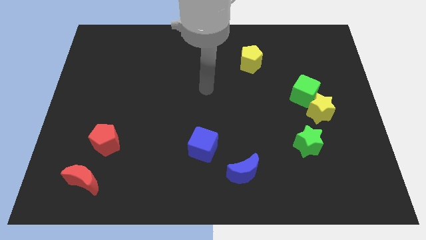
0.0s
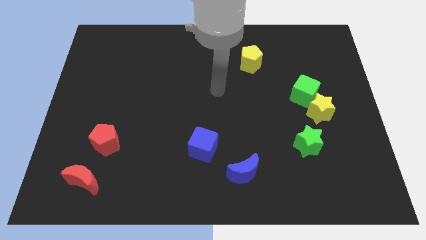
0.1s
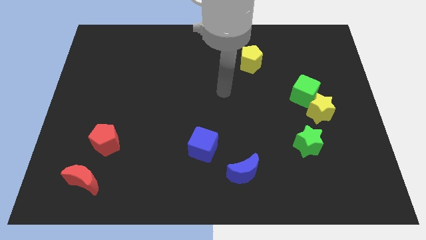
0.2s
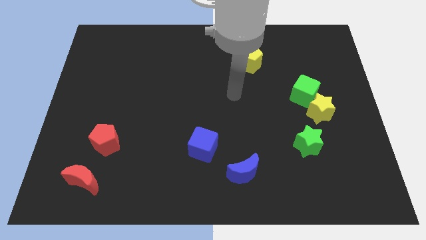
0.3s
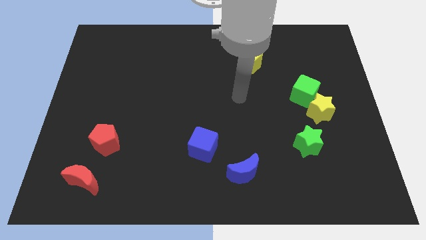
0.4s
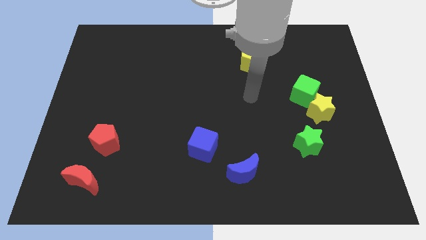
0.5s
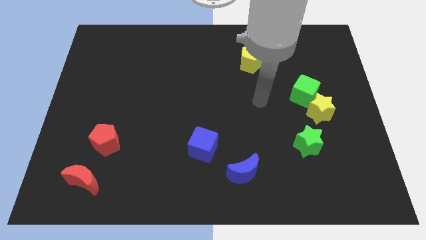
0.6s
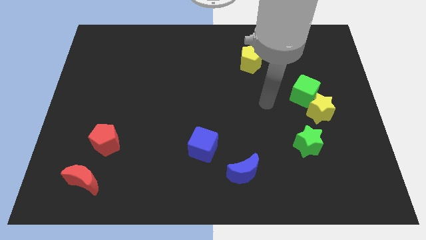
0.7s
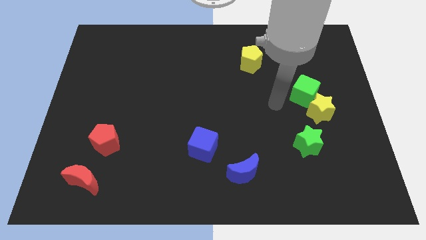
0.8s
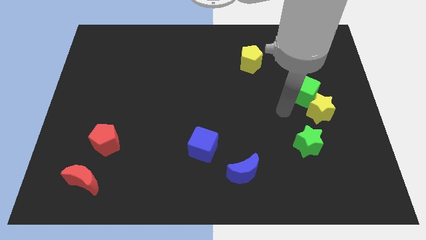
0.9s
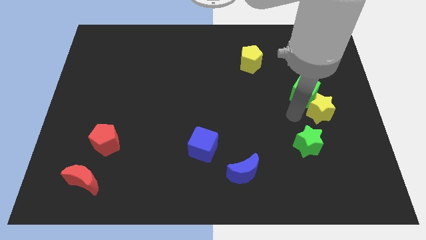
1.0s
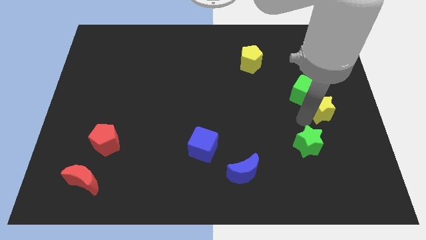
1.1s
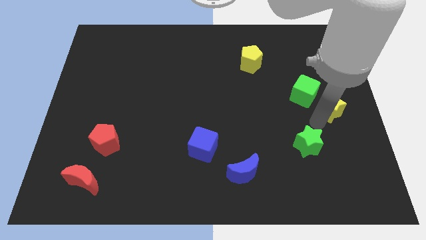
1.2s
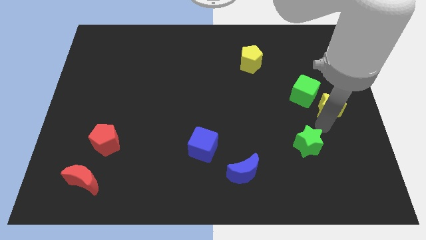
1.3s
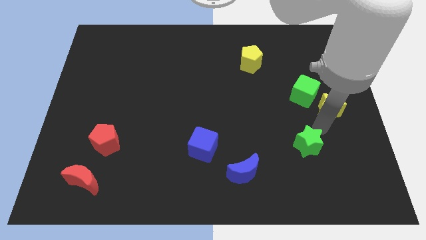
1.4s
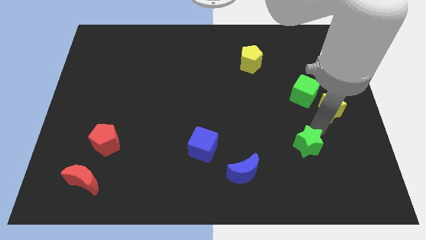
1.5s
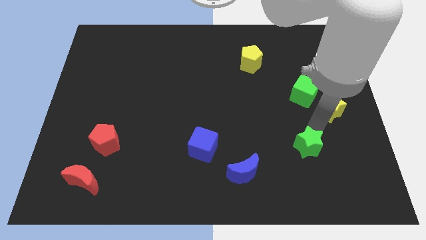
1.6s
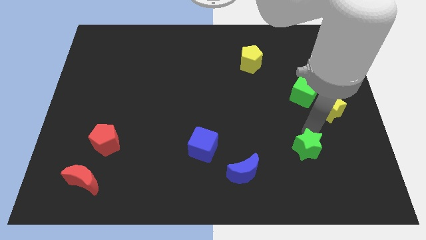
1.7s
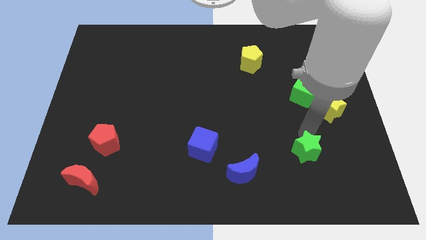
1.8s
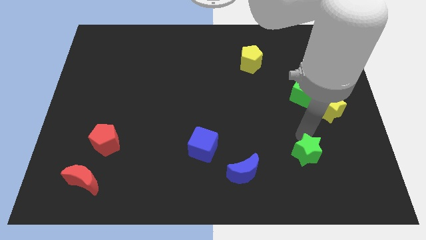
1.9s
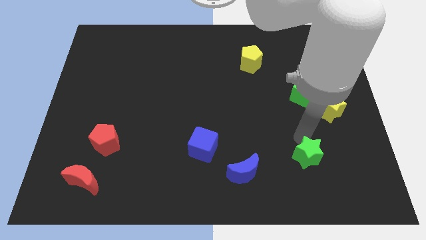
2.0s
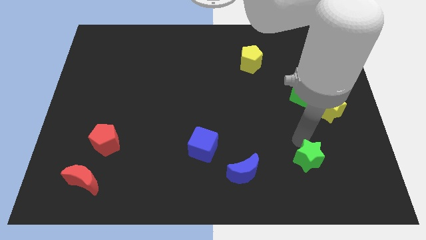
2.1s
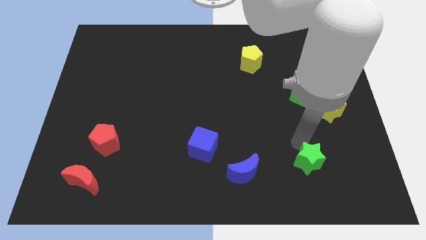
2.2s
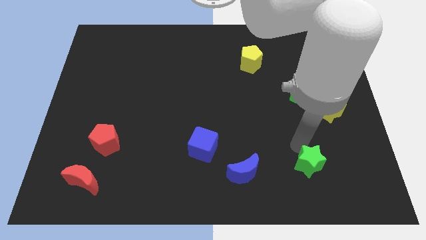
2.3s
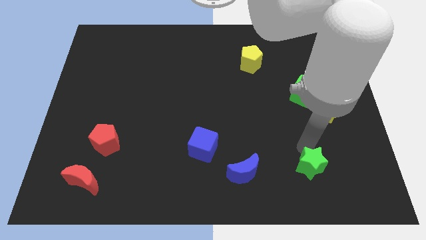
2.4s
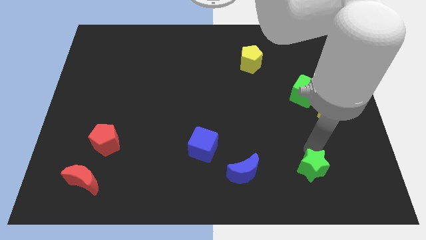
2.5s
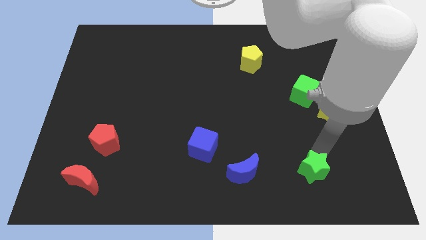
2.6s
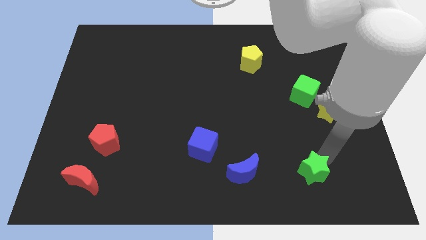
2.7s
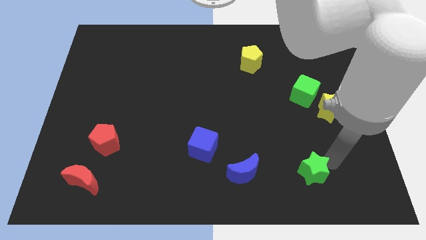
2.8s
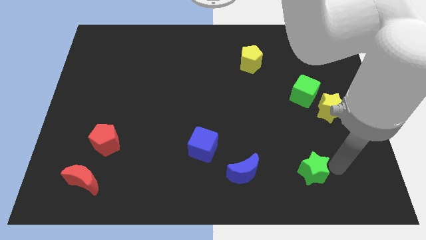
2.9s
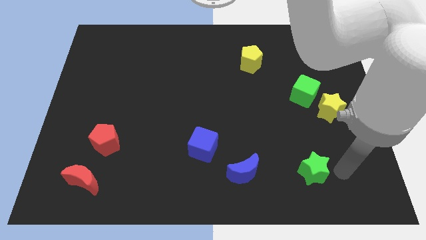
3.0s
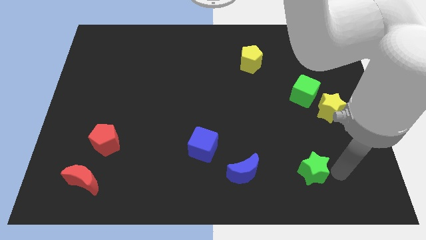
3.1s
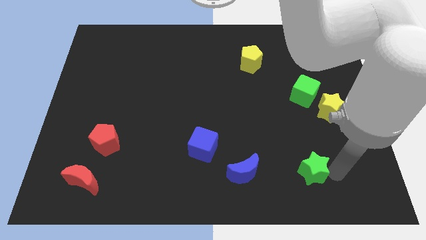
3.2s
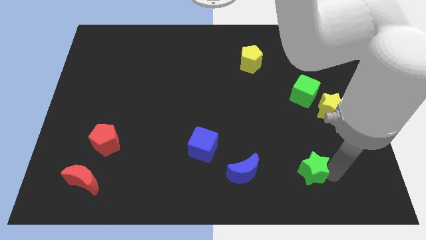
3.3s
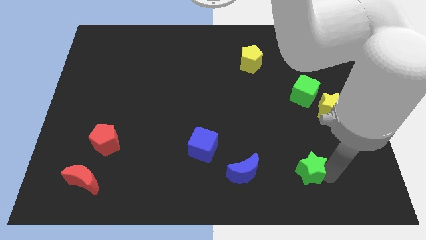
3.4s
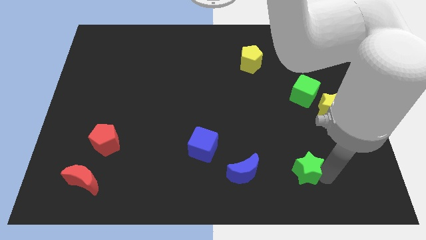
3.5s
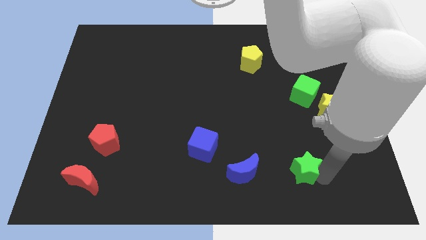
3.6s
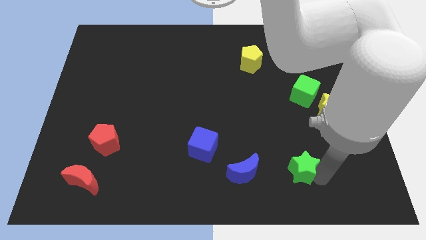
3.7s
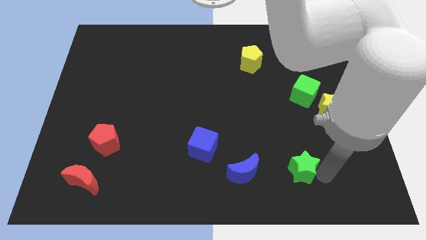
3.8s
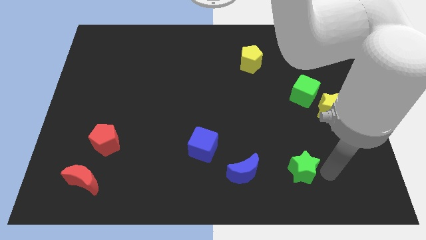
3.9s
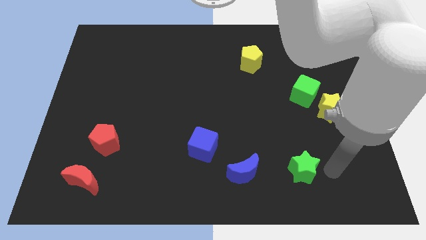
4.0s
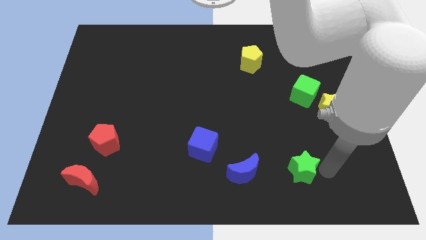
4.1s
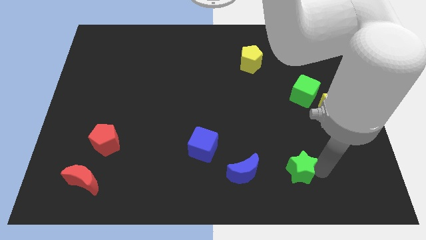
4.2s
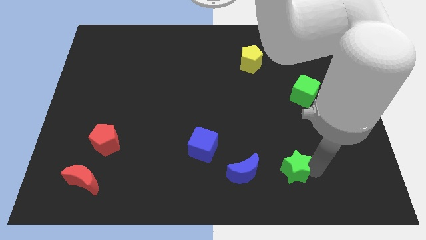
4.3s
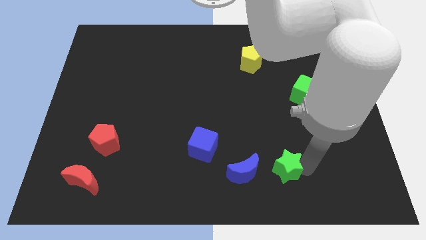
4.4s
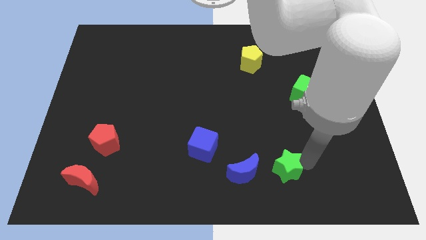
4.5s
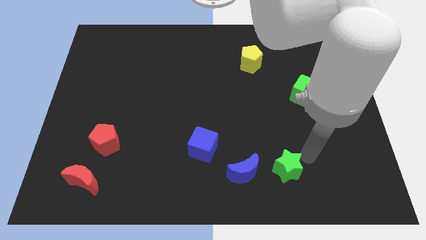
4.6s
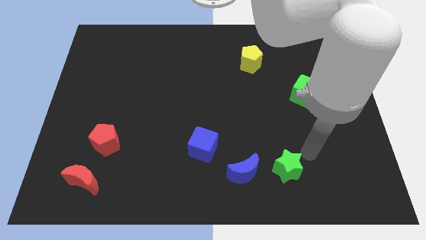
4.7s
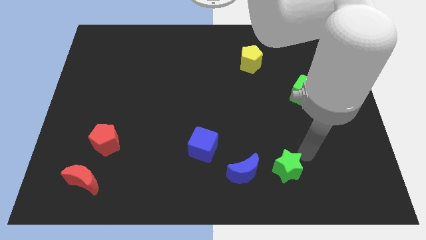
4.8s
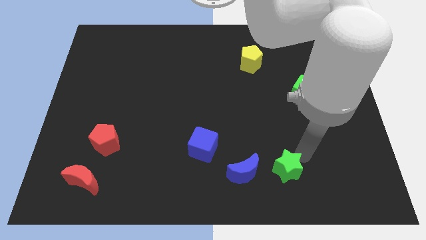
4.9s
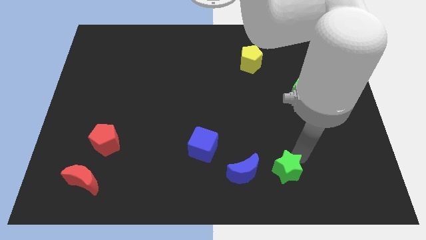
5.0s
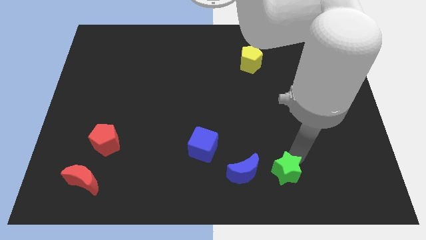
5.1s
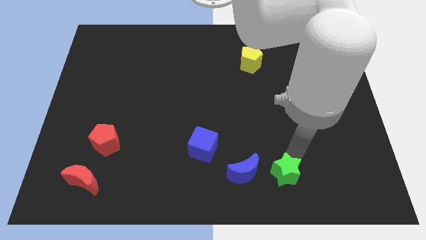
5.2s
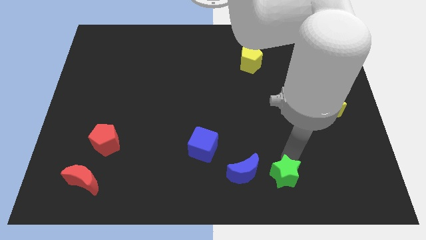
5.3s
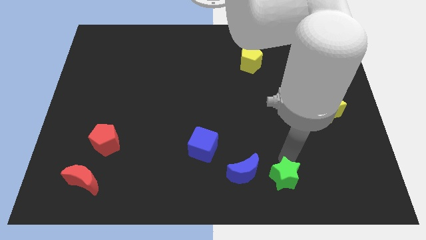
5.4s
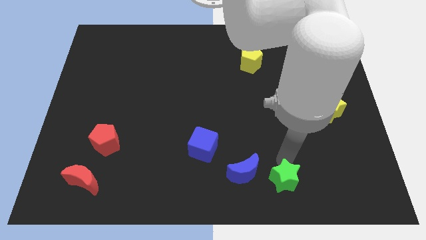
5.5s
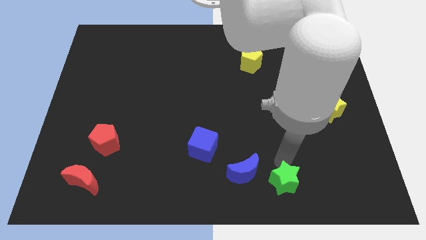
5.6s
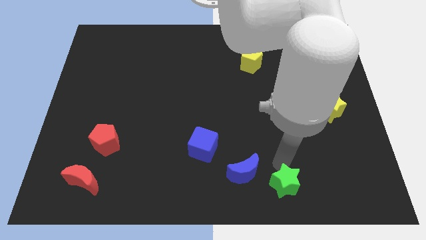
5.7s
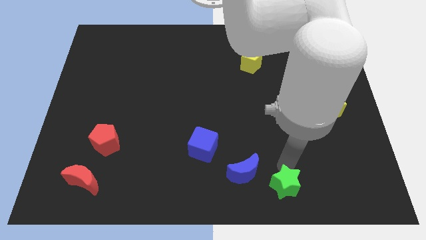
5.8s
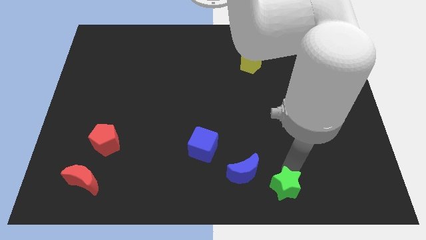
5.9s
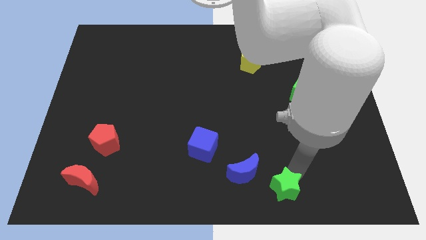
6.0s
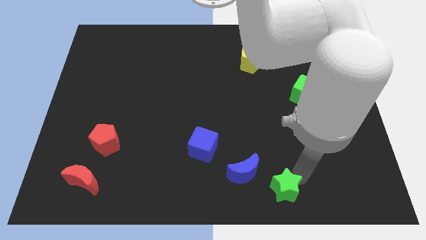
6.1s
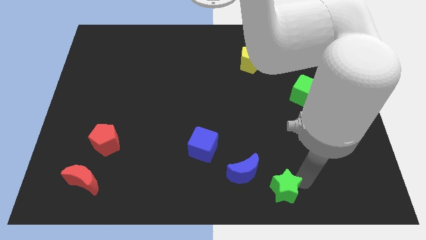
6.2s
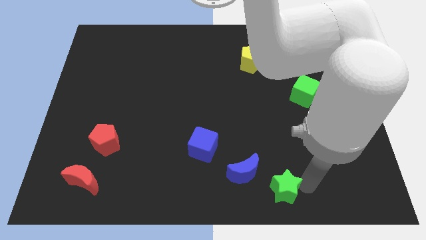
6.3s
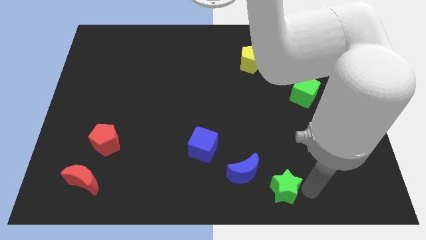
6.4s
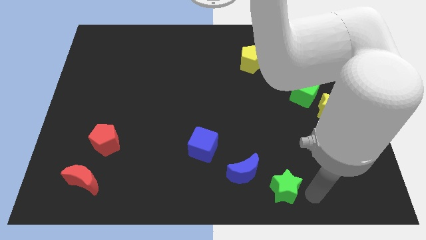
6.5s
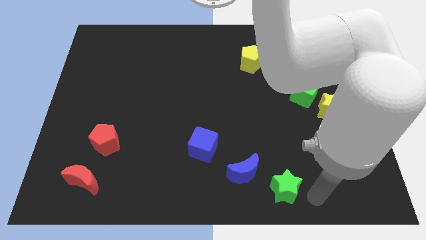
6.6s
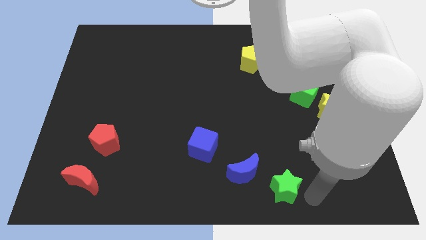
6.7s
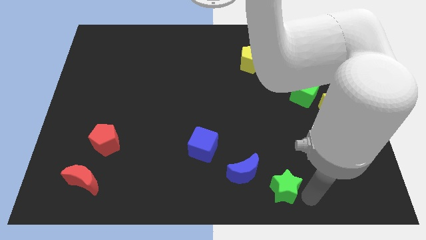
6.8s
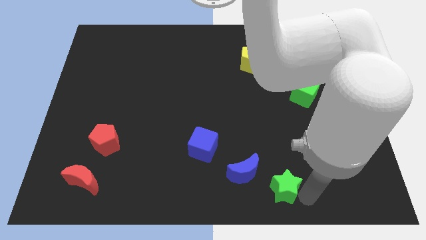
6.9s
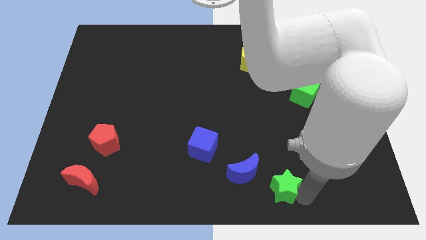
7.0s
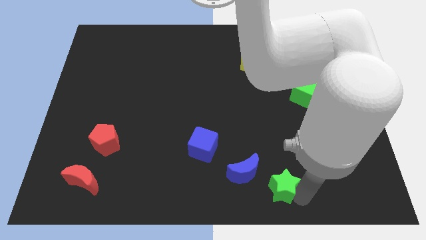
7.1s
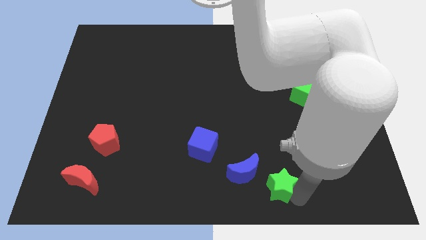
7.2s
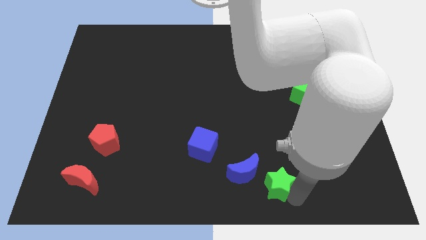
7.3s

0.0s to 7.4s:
move the green star to the bottom
